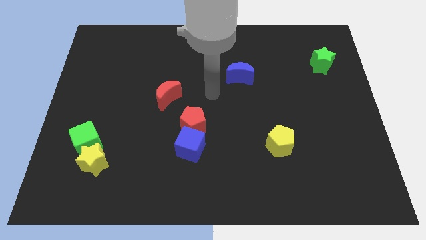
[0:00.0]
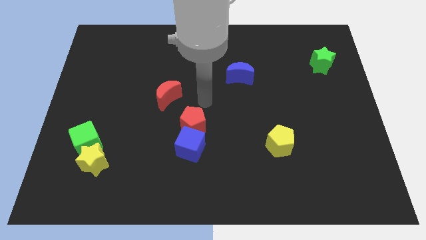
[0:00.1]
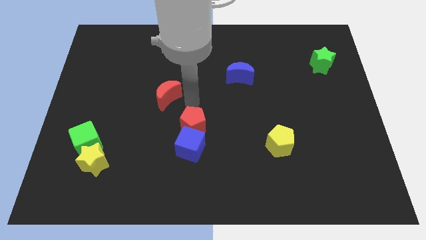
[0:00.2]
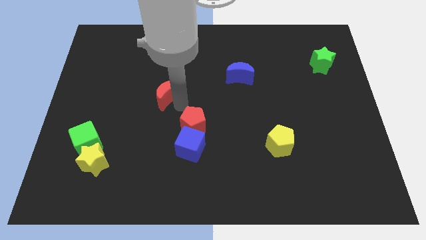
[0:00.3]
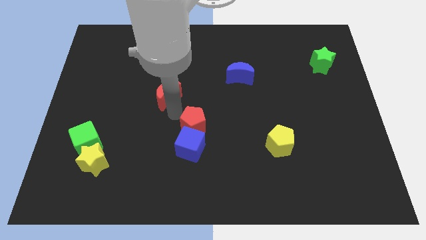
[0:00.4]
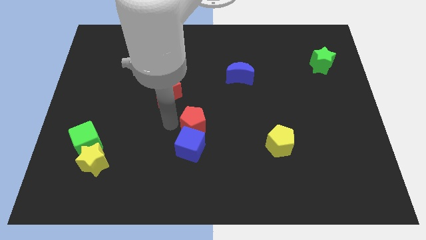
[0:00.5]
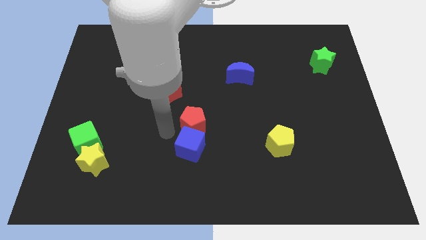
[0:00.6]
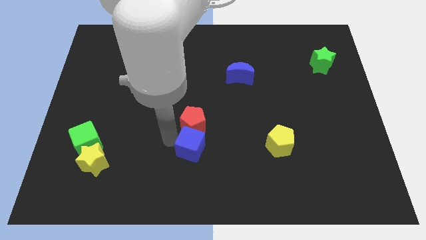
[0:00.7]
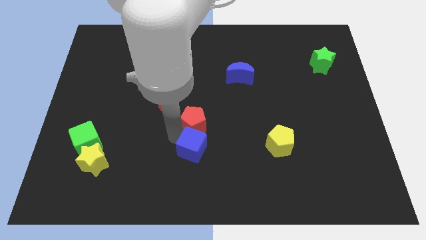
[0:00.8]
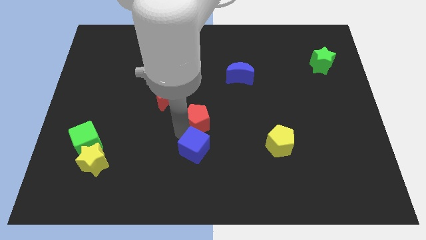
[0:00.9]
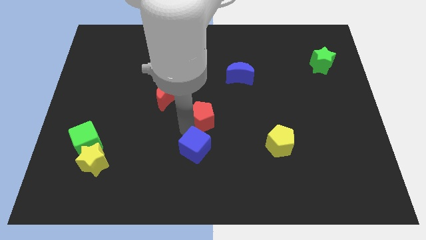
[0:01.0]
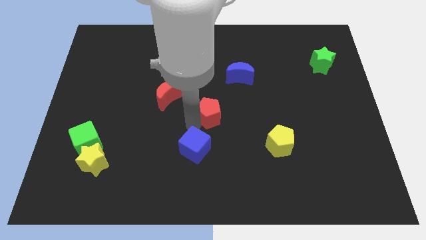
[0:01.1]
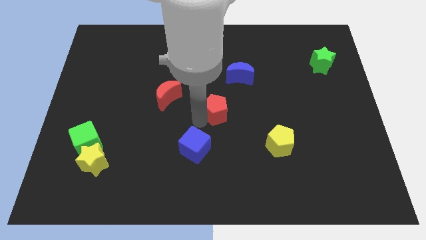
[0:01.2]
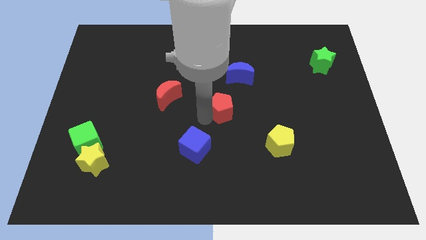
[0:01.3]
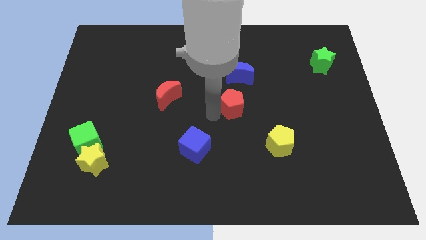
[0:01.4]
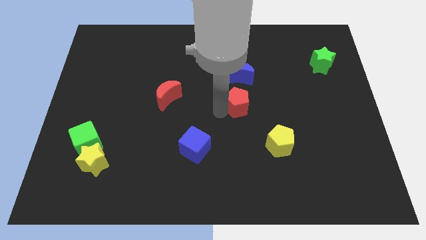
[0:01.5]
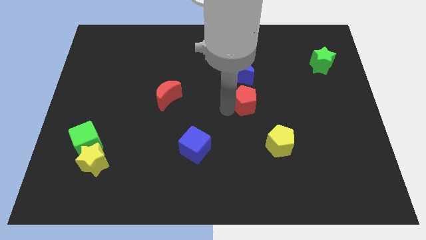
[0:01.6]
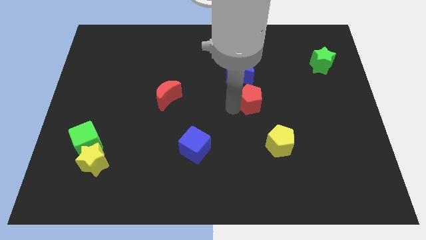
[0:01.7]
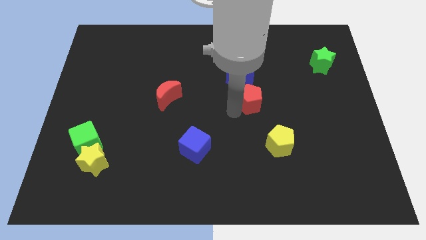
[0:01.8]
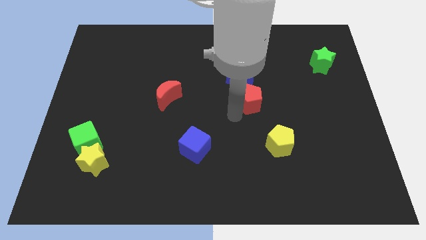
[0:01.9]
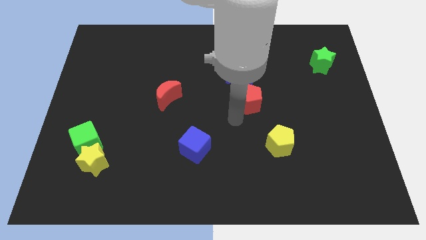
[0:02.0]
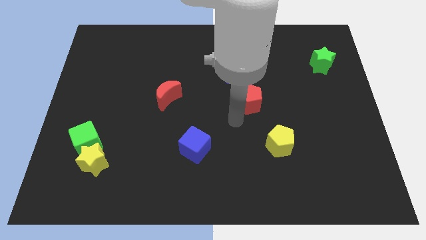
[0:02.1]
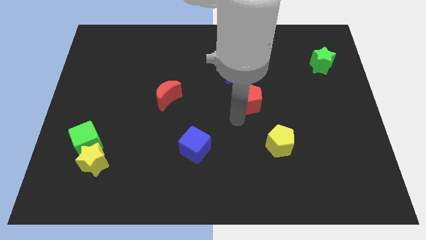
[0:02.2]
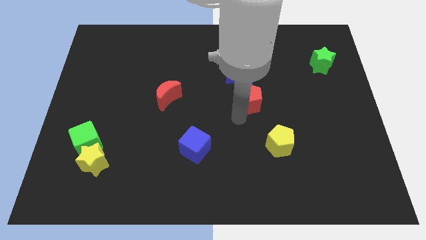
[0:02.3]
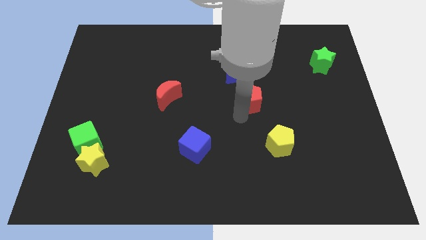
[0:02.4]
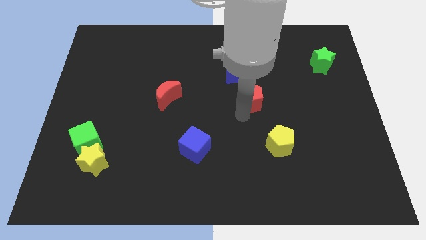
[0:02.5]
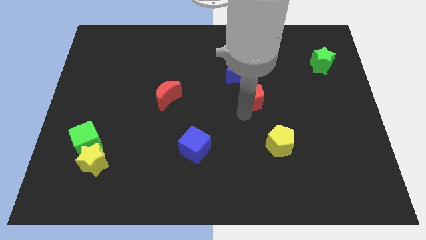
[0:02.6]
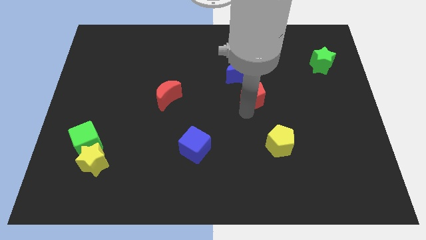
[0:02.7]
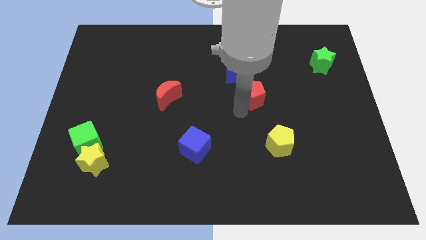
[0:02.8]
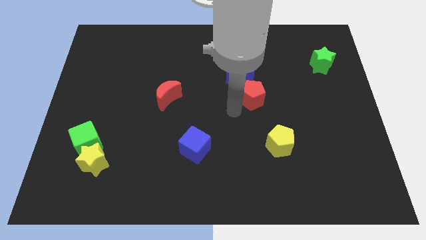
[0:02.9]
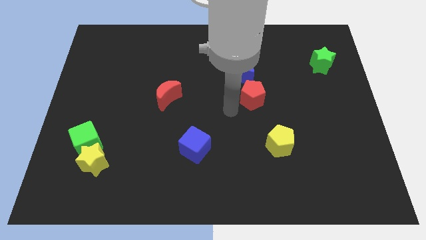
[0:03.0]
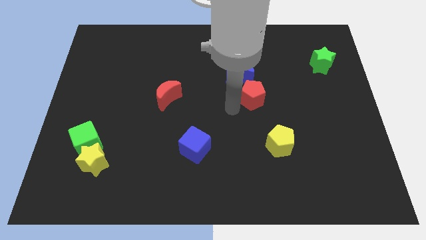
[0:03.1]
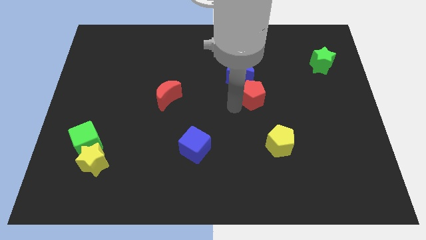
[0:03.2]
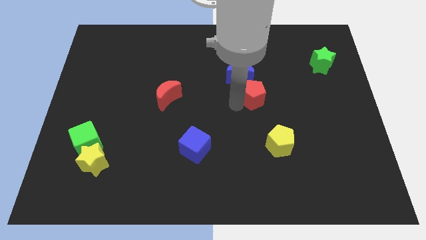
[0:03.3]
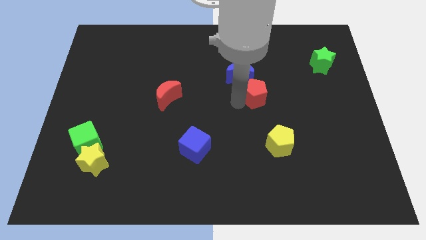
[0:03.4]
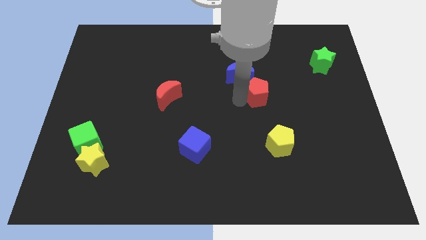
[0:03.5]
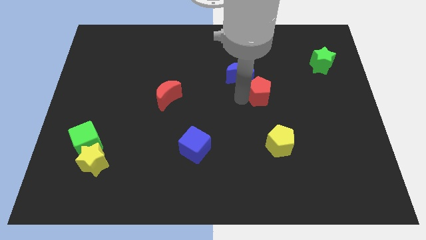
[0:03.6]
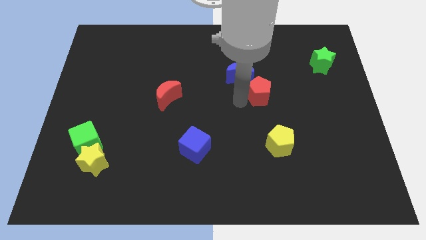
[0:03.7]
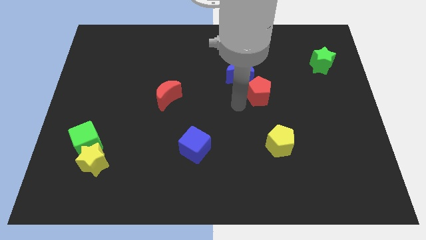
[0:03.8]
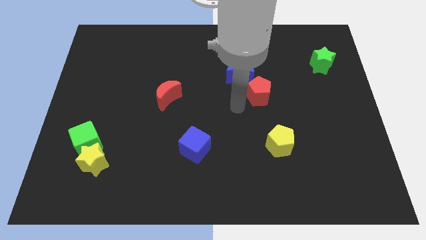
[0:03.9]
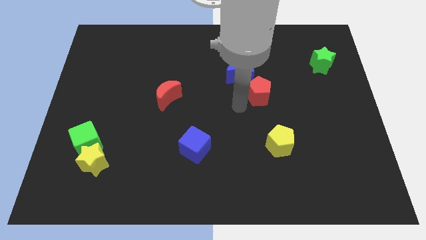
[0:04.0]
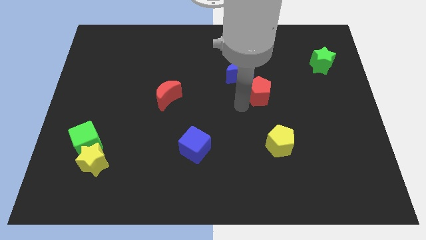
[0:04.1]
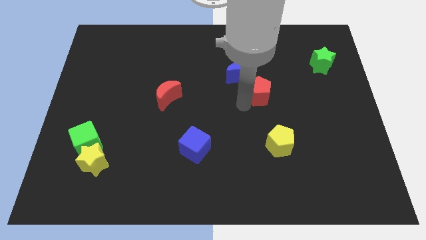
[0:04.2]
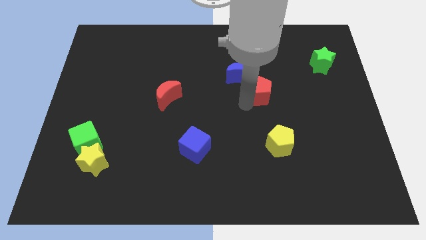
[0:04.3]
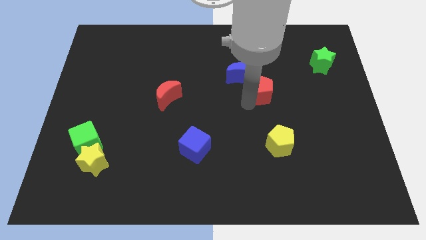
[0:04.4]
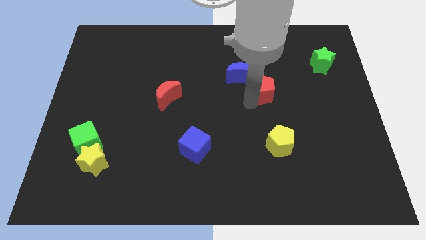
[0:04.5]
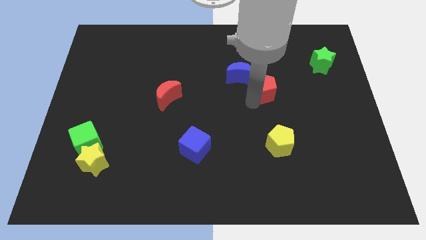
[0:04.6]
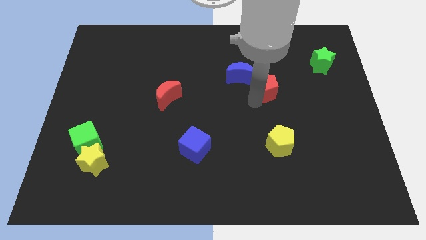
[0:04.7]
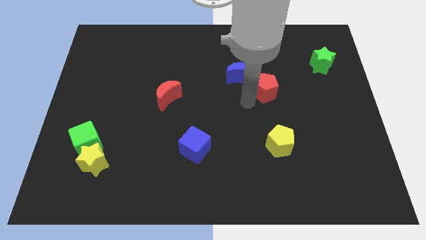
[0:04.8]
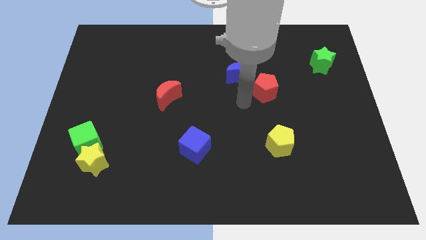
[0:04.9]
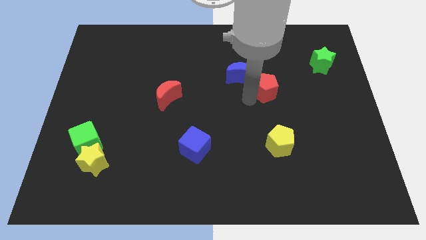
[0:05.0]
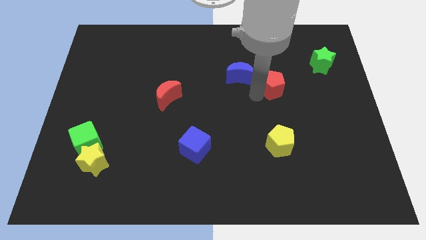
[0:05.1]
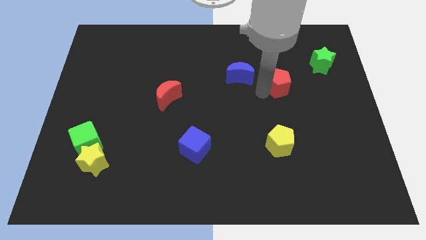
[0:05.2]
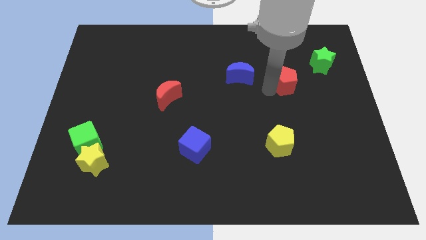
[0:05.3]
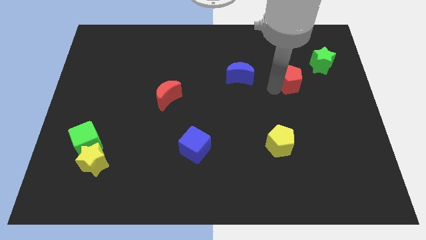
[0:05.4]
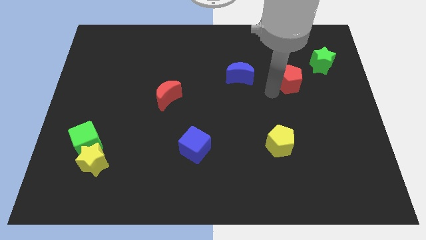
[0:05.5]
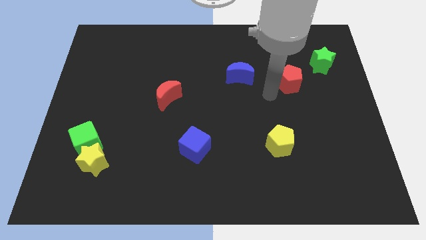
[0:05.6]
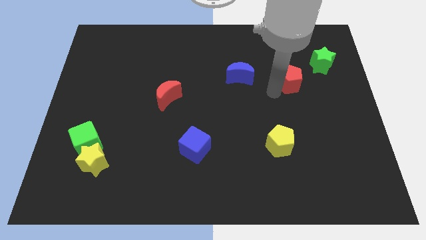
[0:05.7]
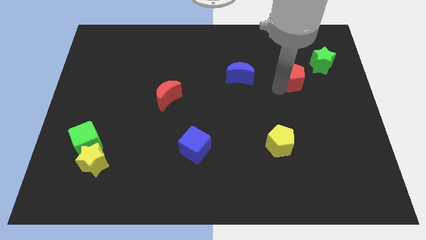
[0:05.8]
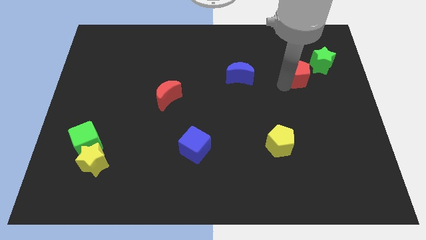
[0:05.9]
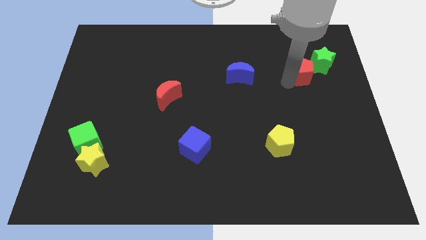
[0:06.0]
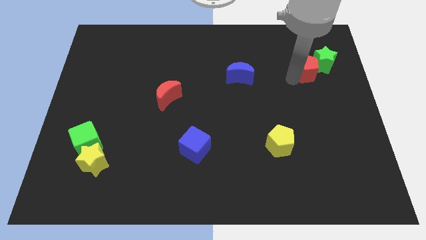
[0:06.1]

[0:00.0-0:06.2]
move the red pentagon to the green star

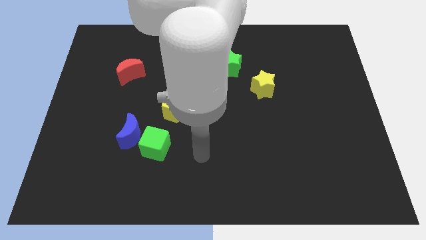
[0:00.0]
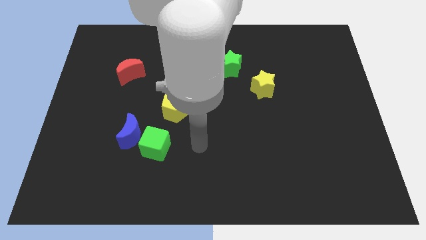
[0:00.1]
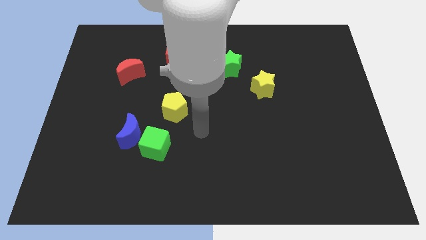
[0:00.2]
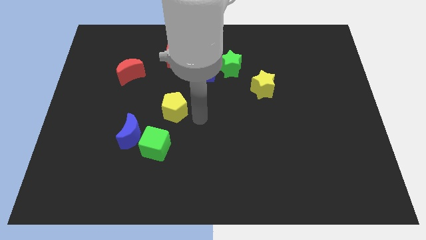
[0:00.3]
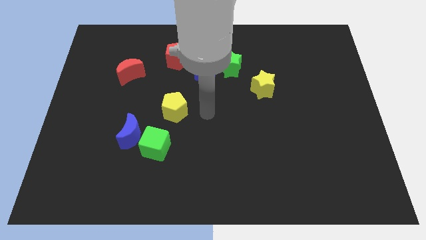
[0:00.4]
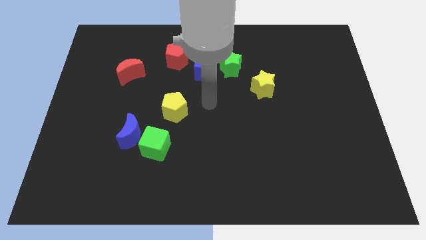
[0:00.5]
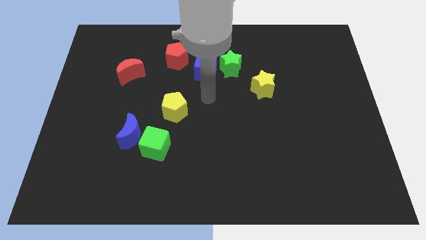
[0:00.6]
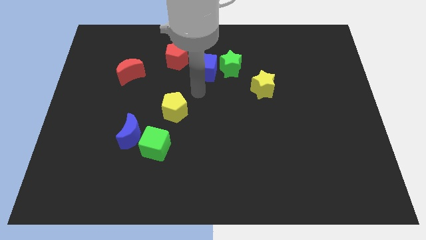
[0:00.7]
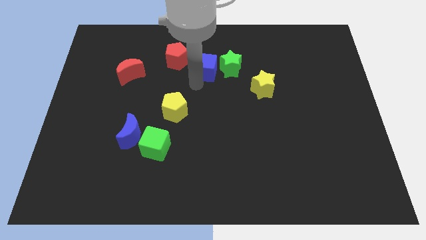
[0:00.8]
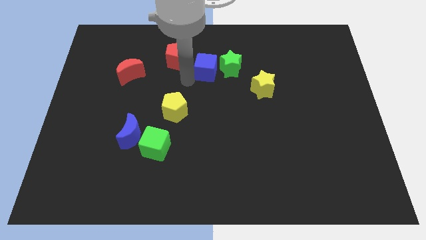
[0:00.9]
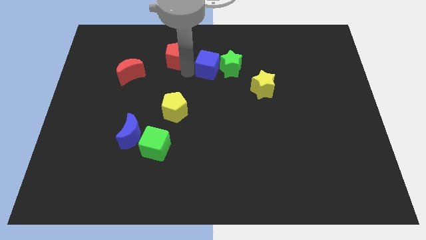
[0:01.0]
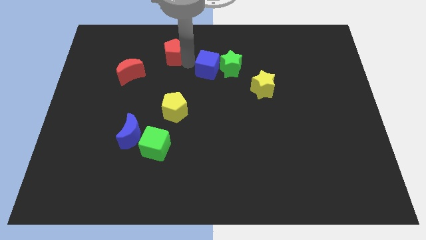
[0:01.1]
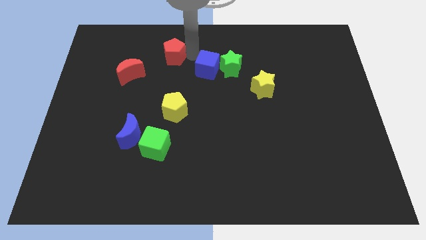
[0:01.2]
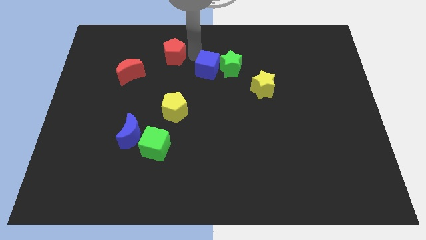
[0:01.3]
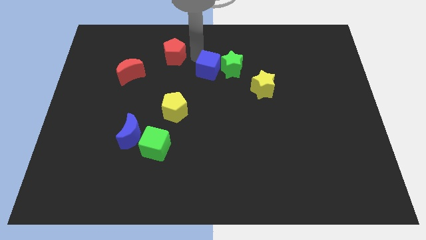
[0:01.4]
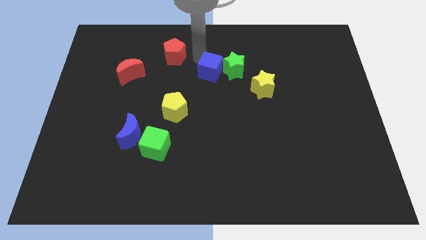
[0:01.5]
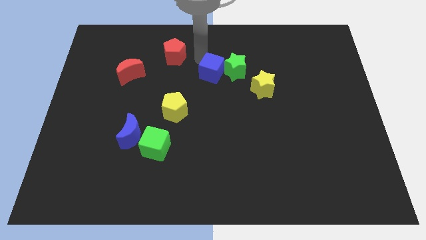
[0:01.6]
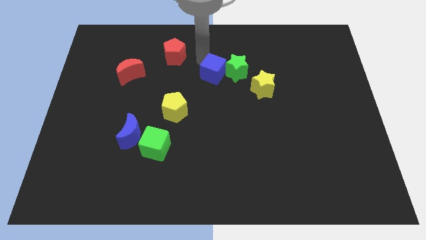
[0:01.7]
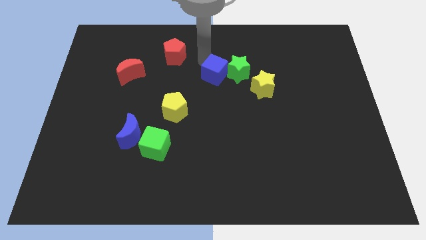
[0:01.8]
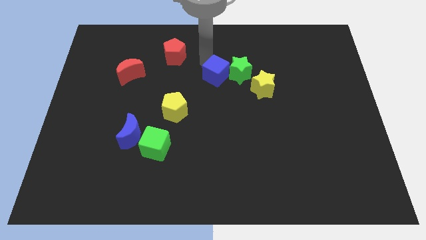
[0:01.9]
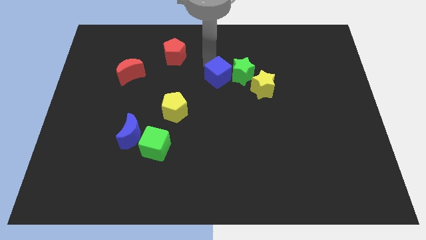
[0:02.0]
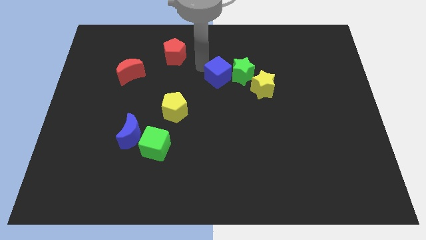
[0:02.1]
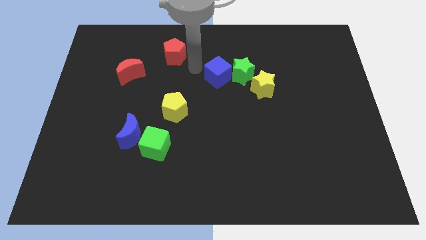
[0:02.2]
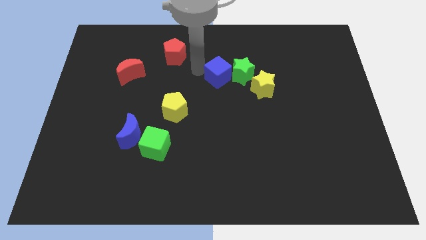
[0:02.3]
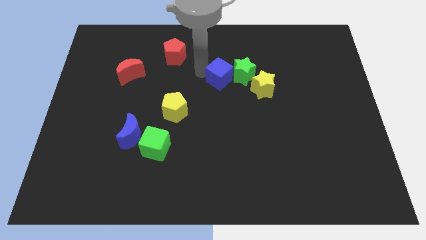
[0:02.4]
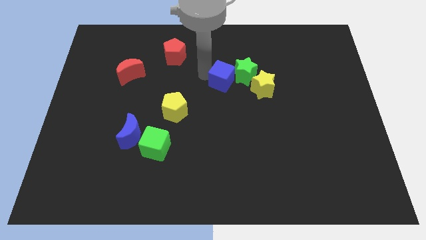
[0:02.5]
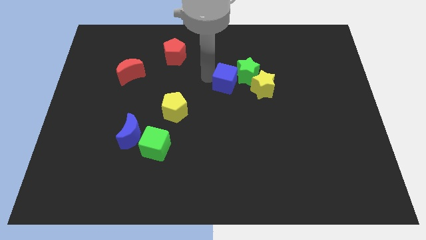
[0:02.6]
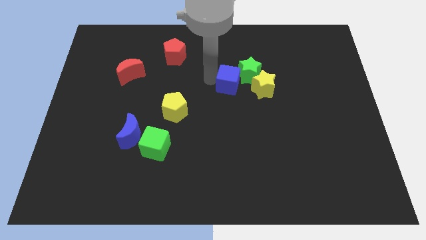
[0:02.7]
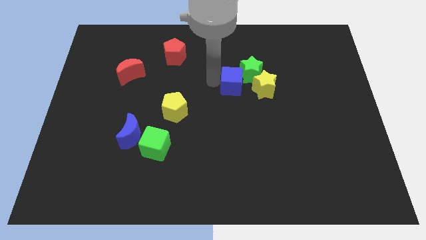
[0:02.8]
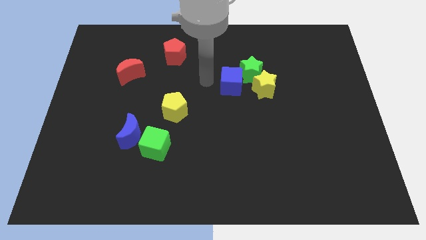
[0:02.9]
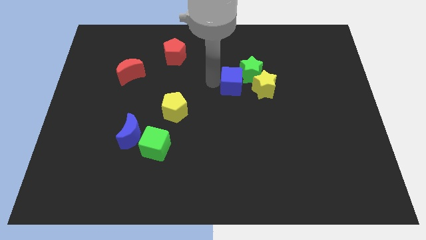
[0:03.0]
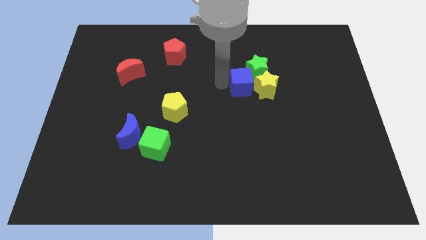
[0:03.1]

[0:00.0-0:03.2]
slide the blue cube close to the yellow star
